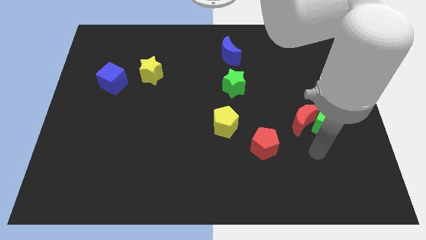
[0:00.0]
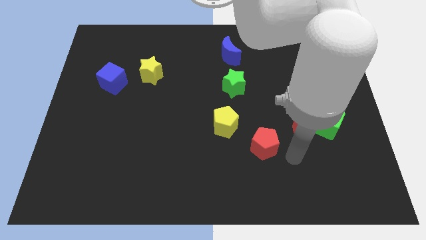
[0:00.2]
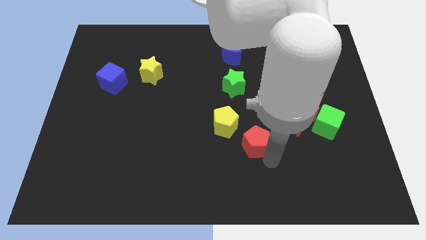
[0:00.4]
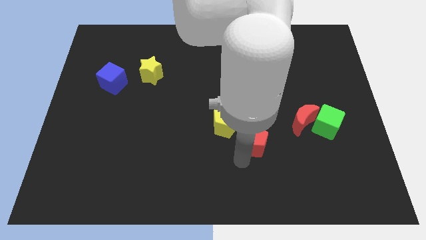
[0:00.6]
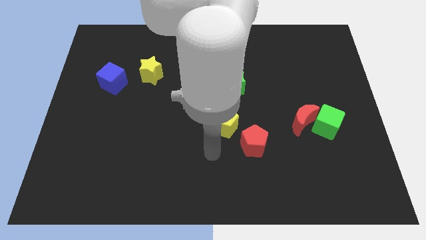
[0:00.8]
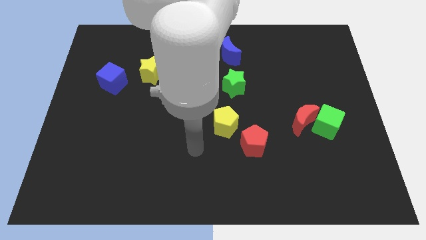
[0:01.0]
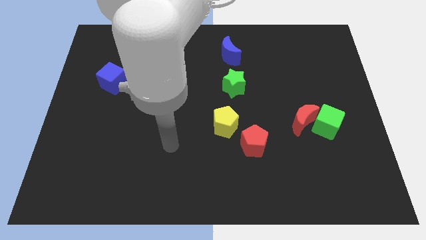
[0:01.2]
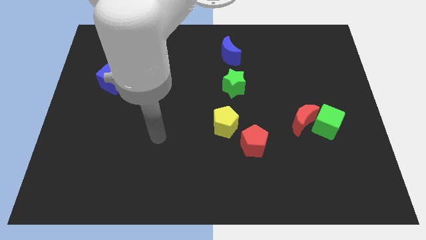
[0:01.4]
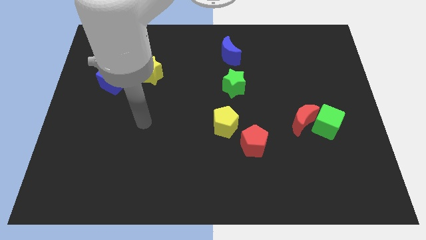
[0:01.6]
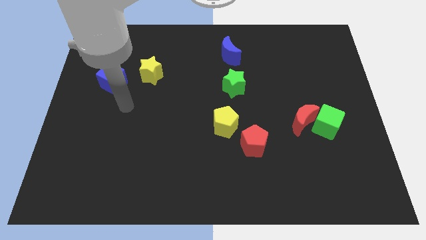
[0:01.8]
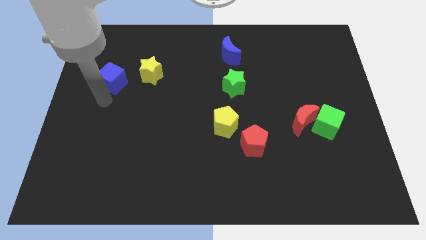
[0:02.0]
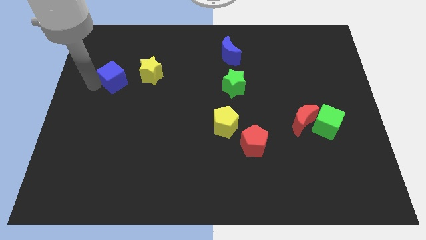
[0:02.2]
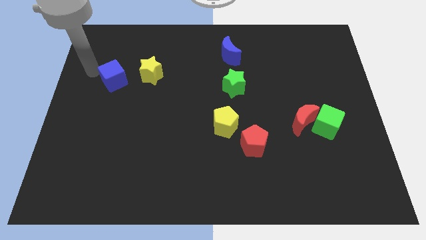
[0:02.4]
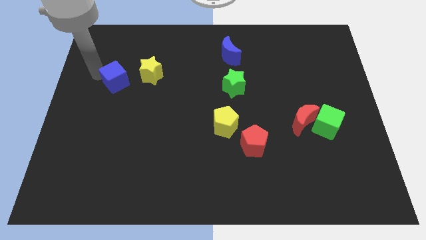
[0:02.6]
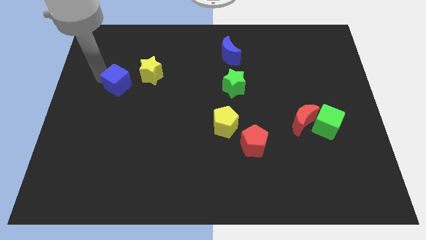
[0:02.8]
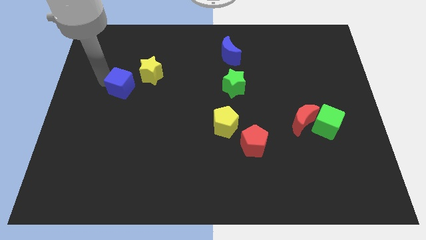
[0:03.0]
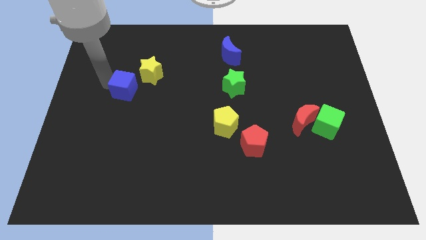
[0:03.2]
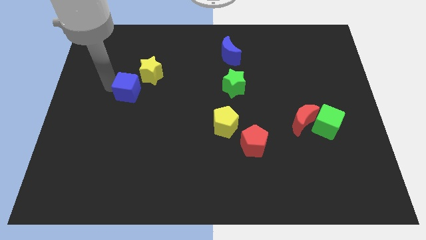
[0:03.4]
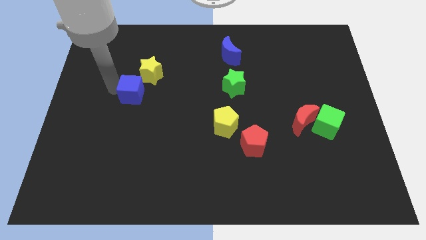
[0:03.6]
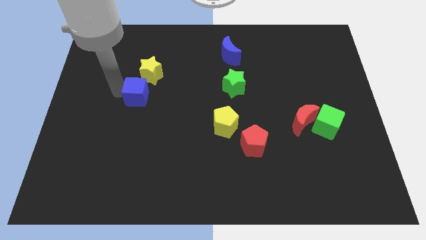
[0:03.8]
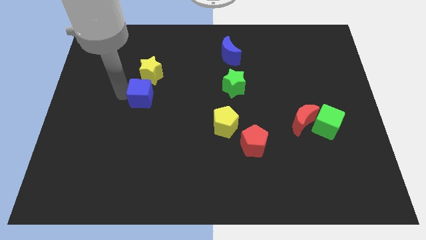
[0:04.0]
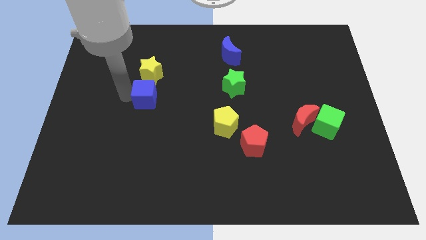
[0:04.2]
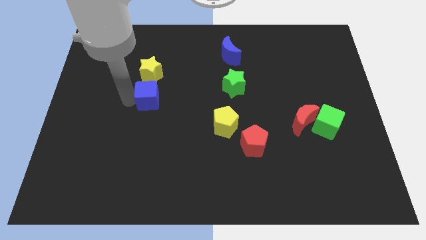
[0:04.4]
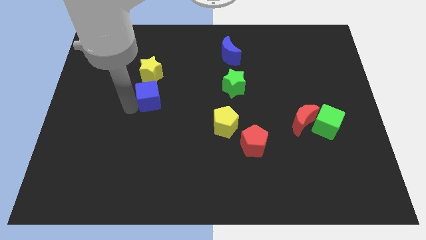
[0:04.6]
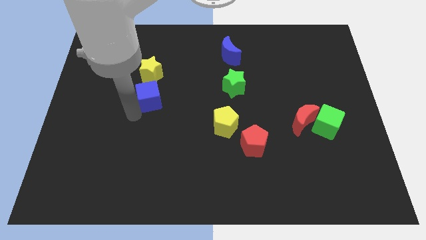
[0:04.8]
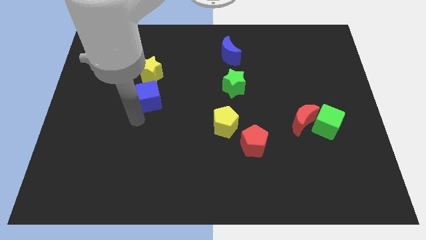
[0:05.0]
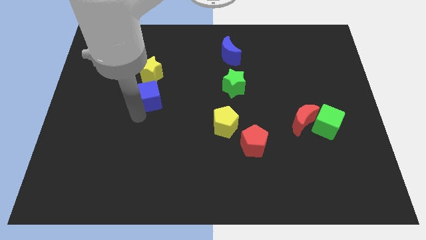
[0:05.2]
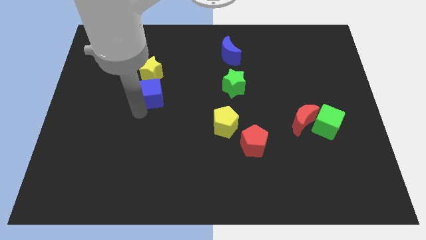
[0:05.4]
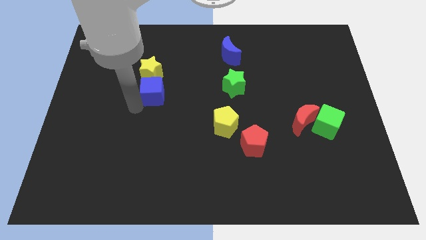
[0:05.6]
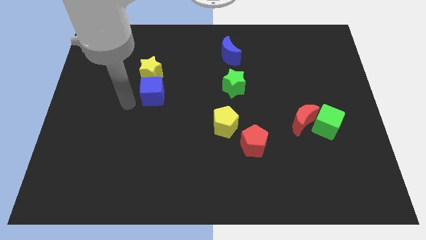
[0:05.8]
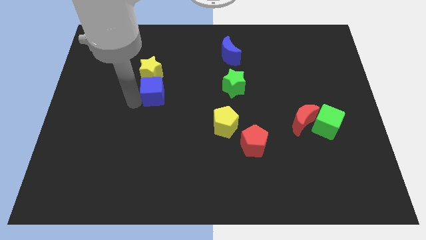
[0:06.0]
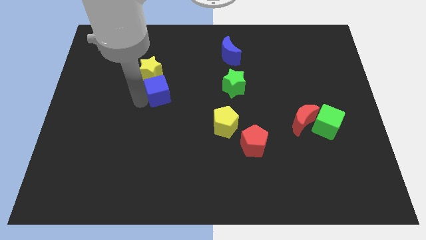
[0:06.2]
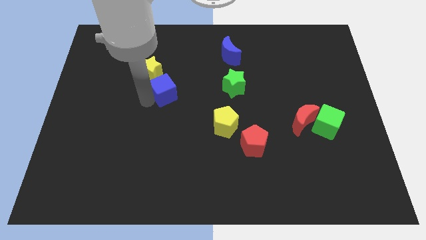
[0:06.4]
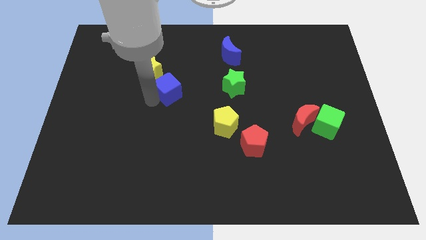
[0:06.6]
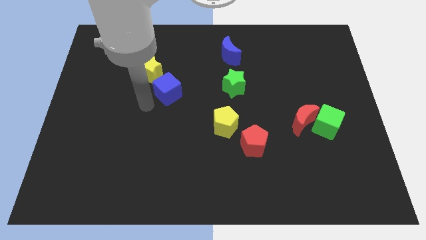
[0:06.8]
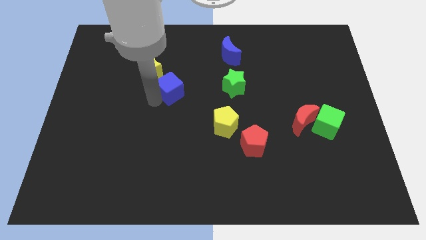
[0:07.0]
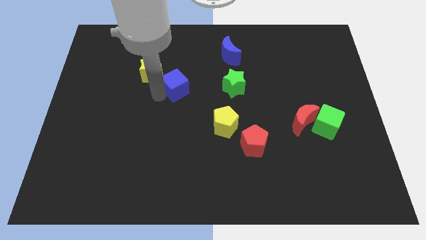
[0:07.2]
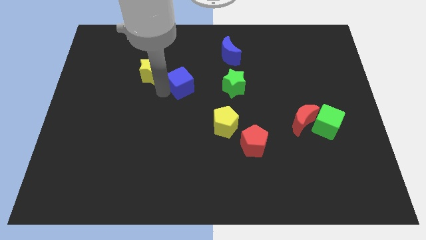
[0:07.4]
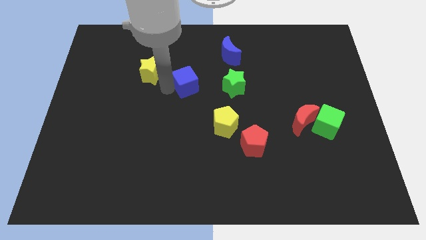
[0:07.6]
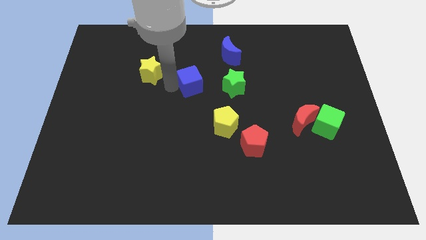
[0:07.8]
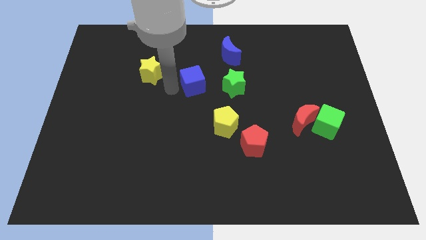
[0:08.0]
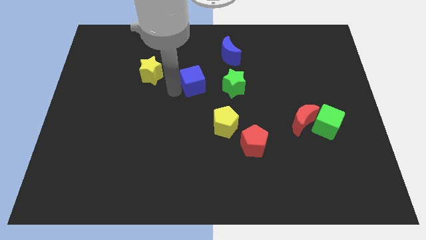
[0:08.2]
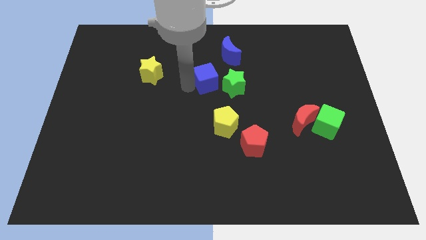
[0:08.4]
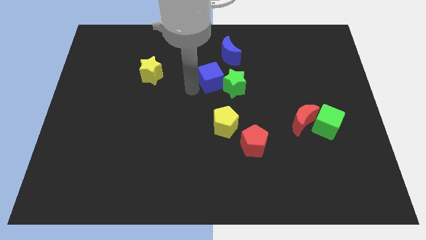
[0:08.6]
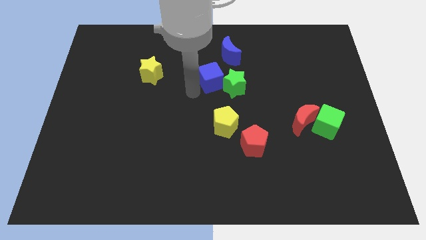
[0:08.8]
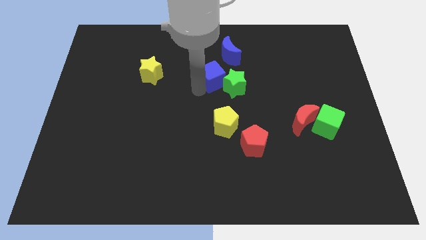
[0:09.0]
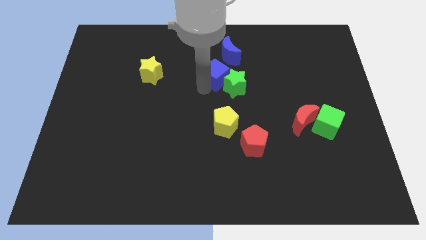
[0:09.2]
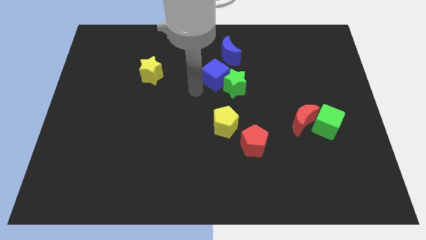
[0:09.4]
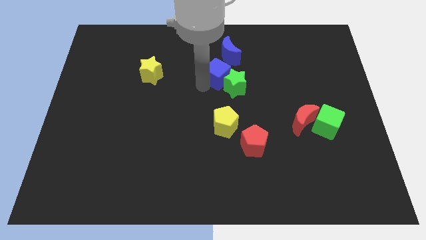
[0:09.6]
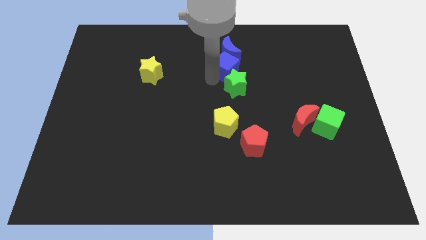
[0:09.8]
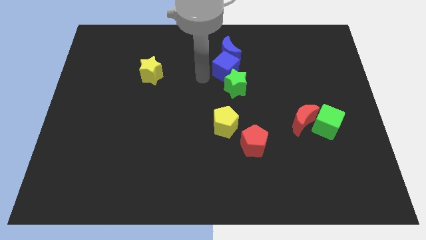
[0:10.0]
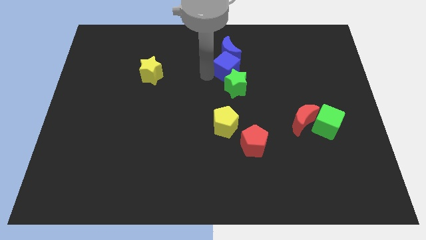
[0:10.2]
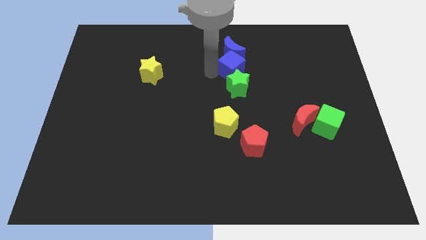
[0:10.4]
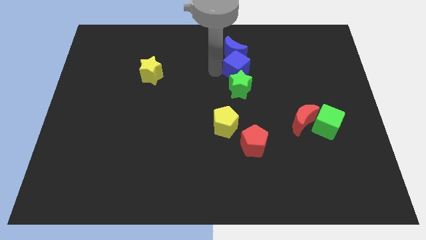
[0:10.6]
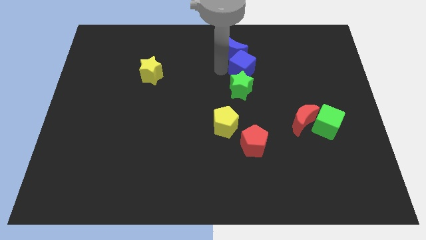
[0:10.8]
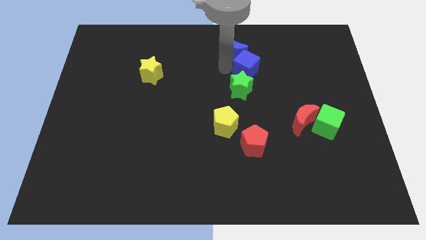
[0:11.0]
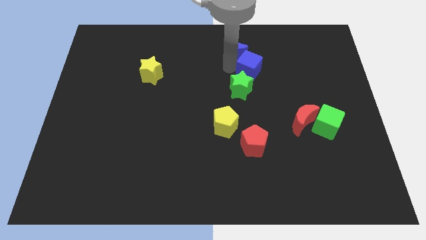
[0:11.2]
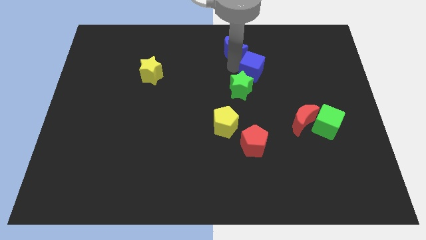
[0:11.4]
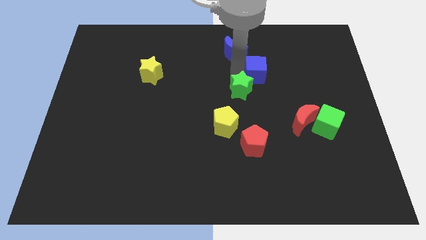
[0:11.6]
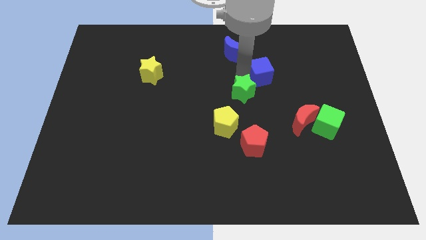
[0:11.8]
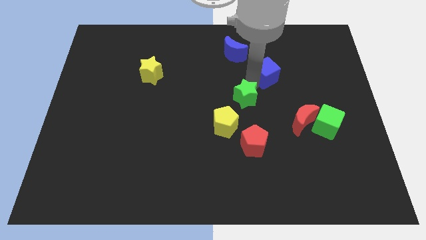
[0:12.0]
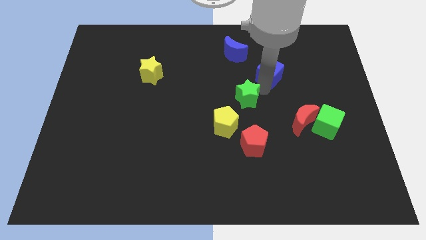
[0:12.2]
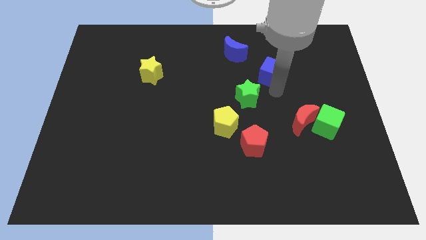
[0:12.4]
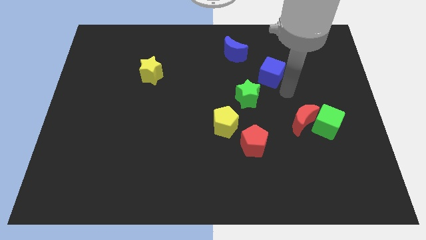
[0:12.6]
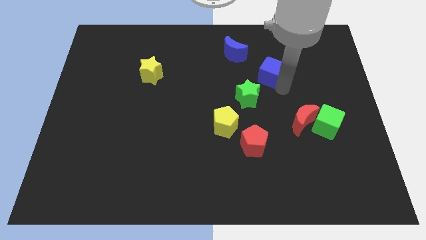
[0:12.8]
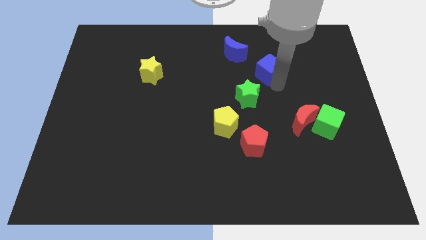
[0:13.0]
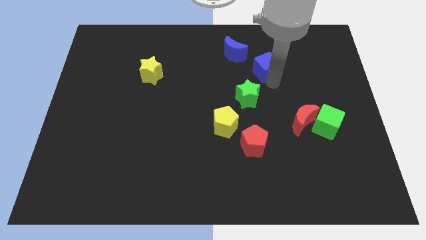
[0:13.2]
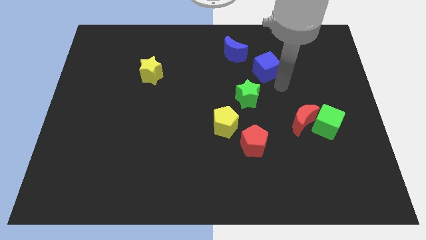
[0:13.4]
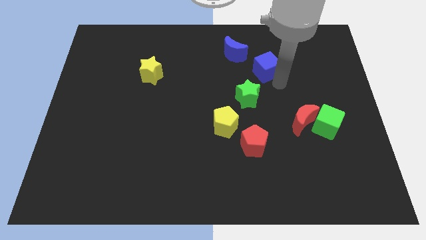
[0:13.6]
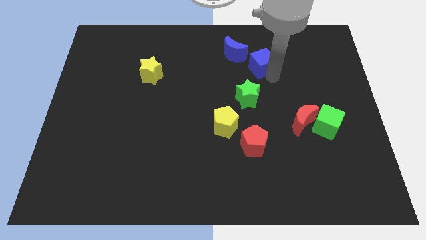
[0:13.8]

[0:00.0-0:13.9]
put the blue cube to the right of the blue moon
